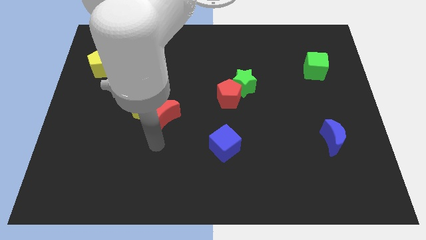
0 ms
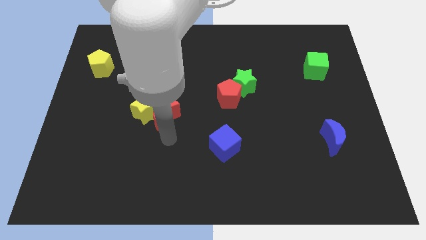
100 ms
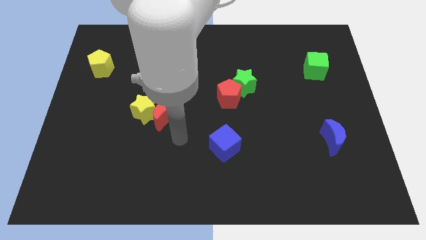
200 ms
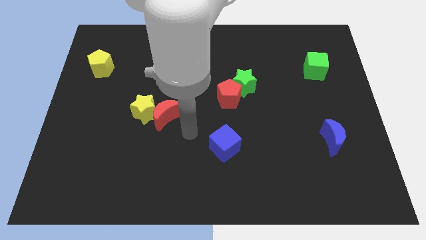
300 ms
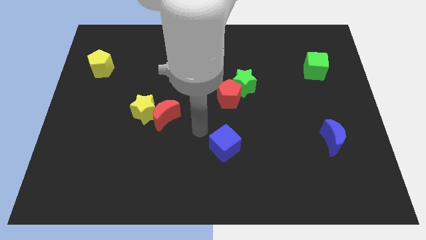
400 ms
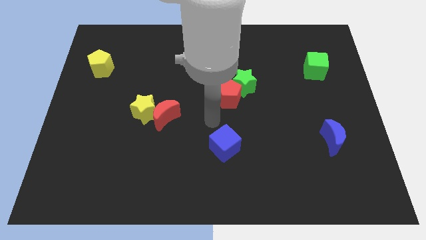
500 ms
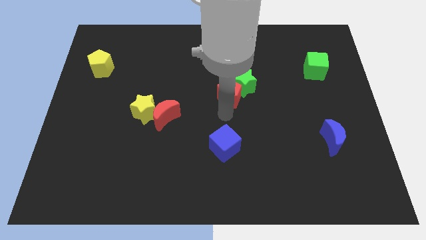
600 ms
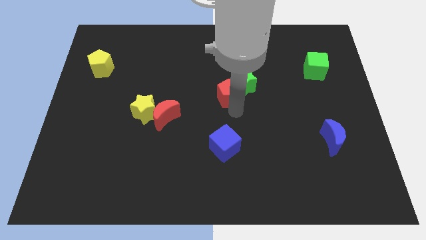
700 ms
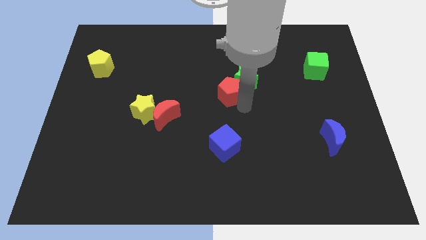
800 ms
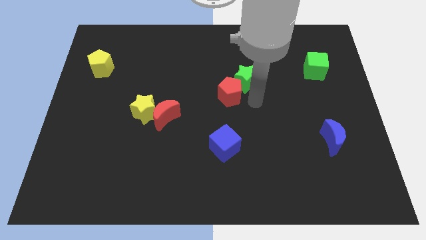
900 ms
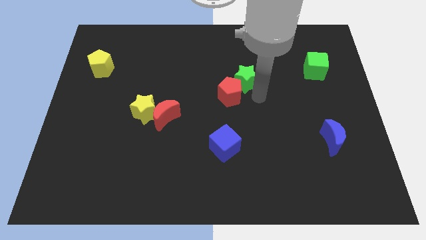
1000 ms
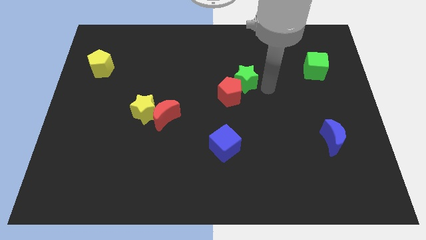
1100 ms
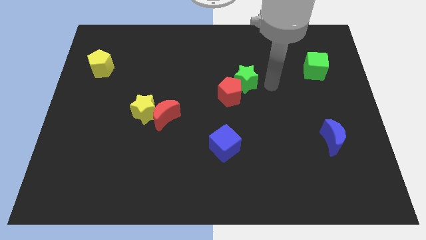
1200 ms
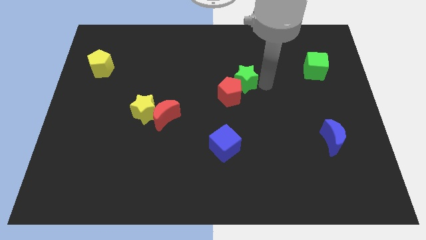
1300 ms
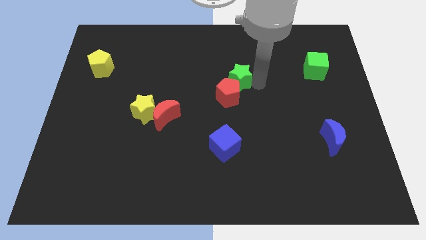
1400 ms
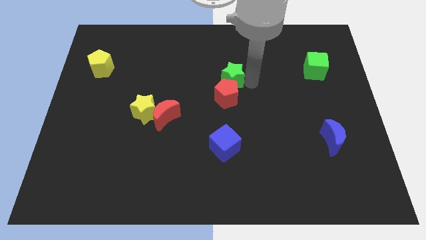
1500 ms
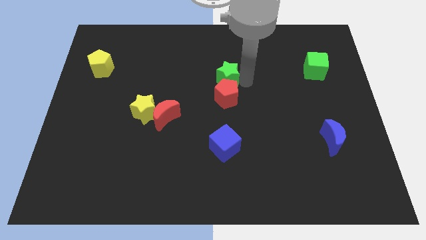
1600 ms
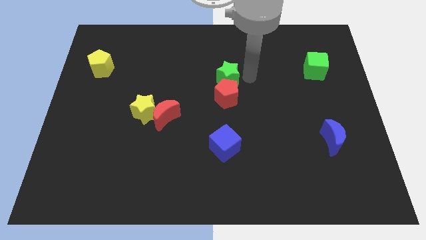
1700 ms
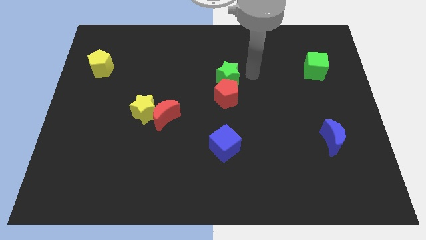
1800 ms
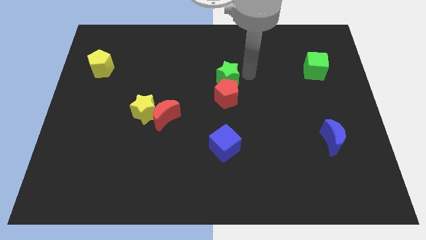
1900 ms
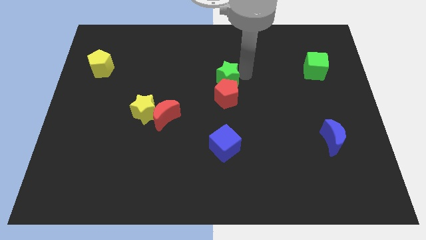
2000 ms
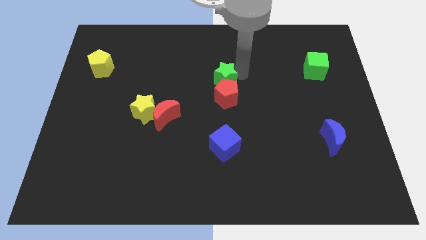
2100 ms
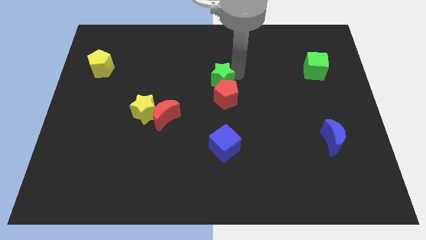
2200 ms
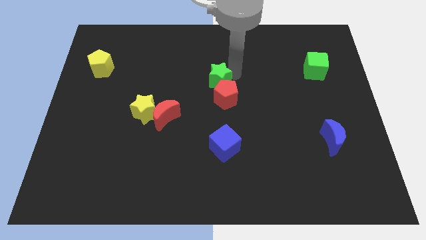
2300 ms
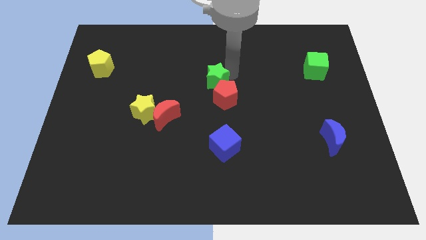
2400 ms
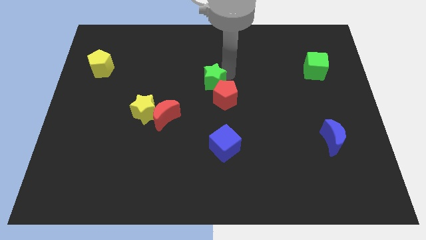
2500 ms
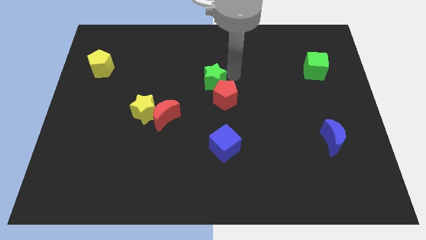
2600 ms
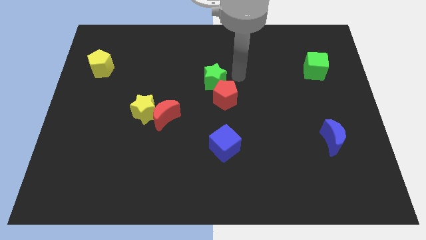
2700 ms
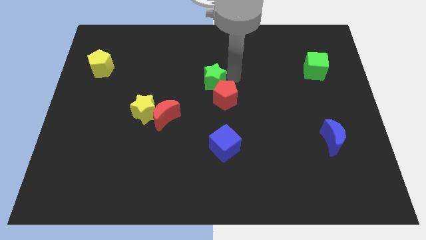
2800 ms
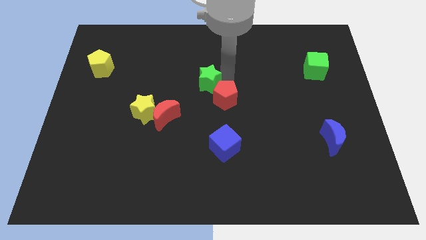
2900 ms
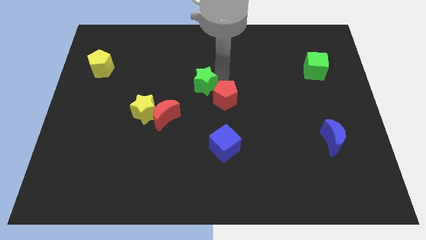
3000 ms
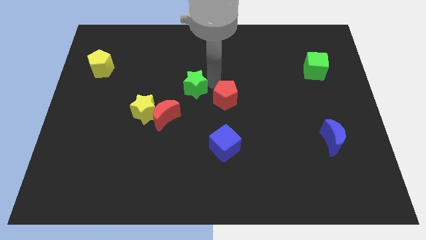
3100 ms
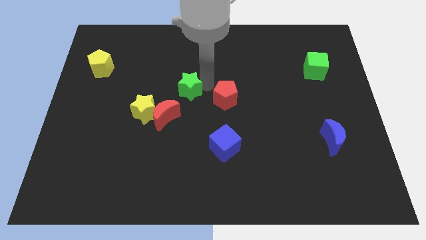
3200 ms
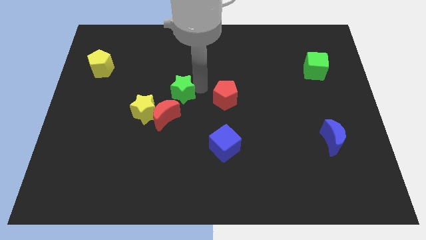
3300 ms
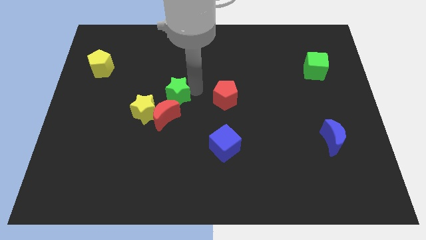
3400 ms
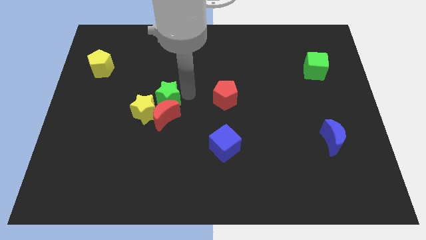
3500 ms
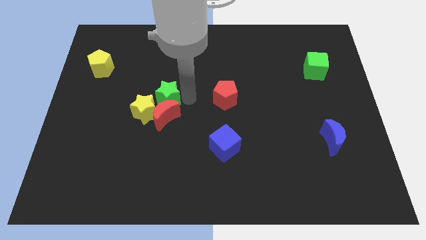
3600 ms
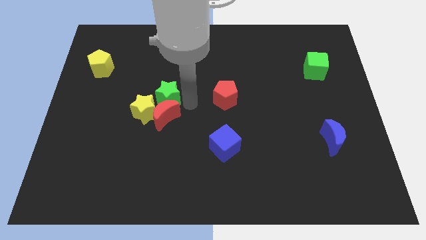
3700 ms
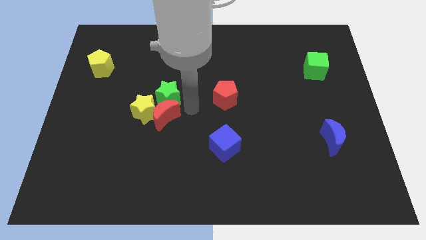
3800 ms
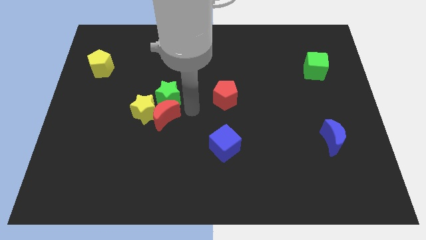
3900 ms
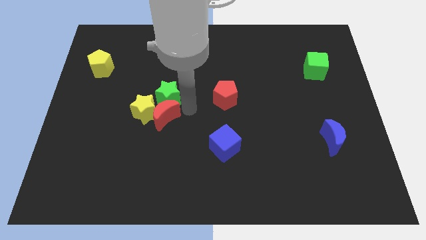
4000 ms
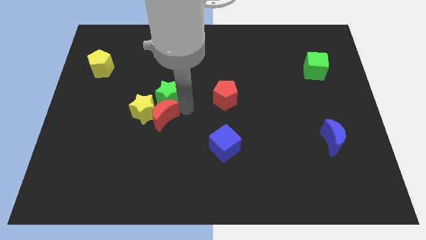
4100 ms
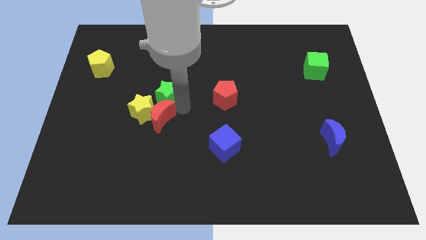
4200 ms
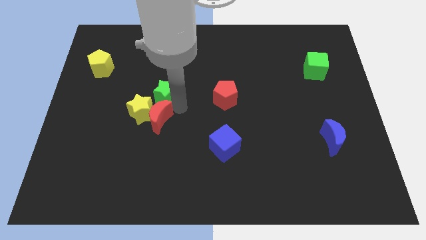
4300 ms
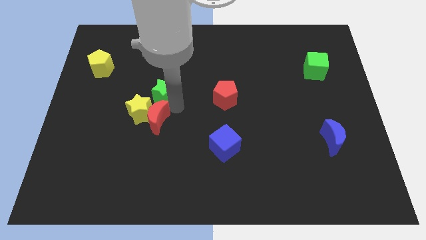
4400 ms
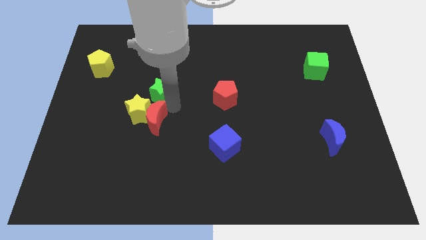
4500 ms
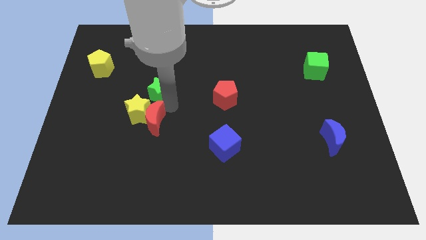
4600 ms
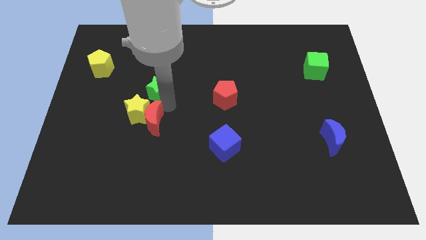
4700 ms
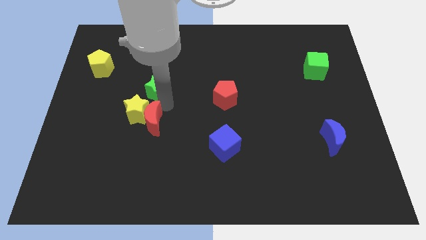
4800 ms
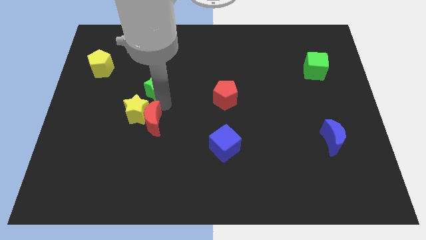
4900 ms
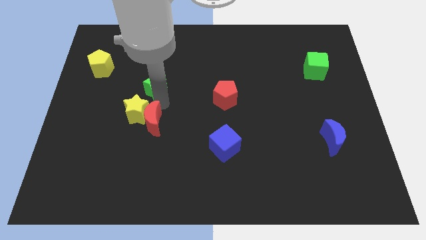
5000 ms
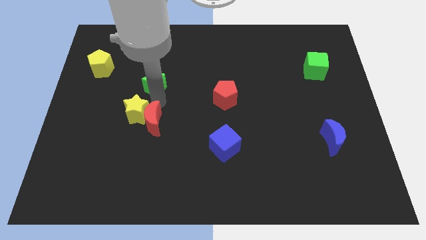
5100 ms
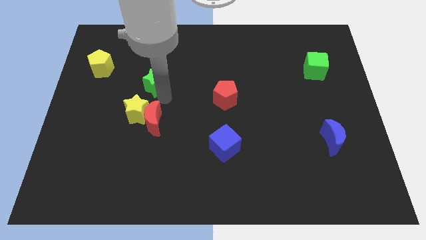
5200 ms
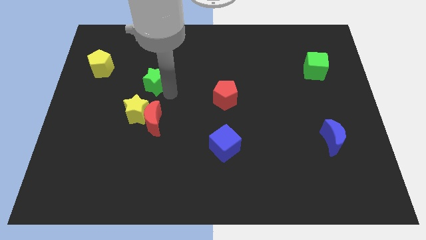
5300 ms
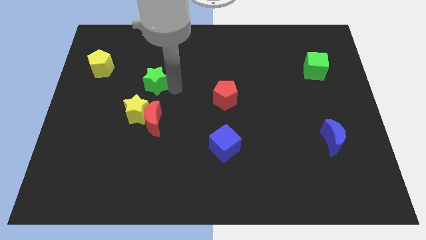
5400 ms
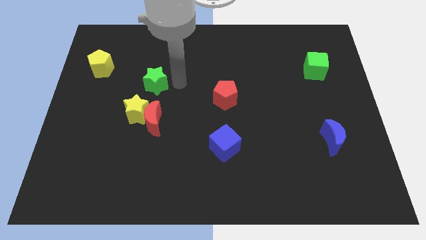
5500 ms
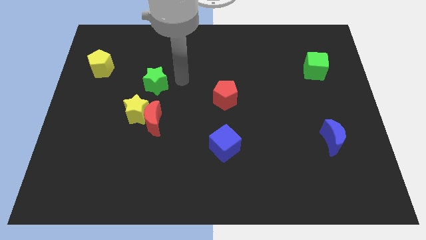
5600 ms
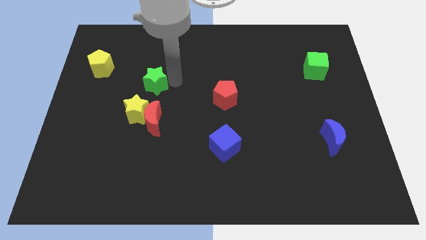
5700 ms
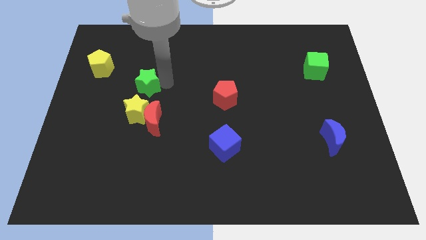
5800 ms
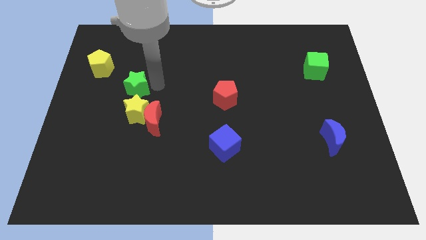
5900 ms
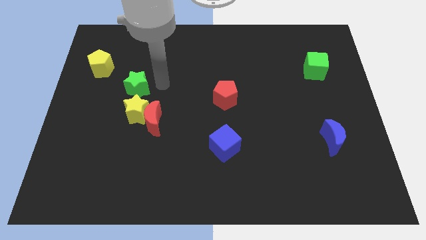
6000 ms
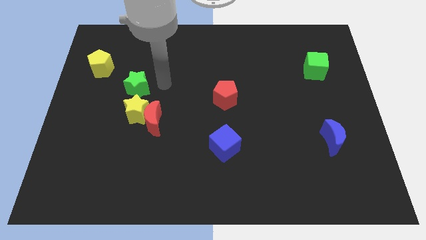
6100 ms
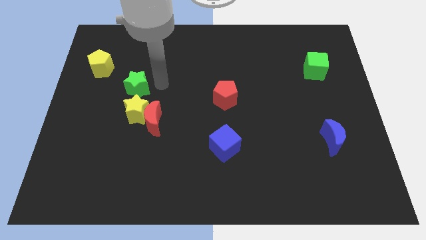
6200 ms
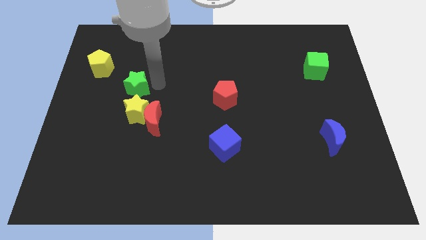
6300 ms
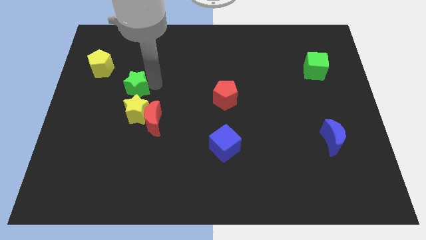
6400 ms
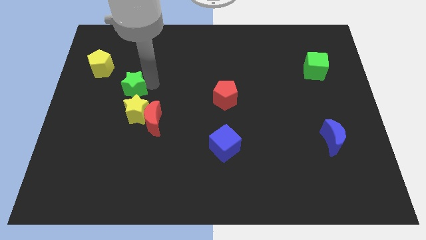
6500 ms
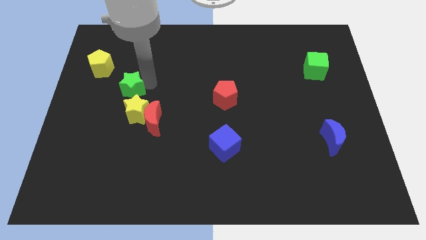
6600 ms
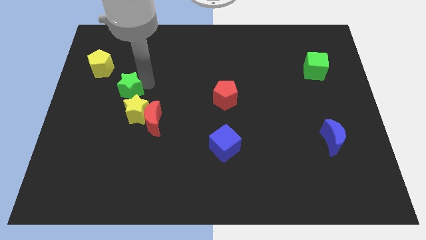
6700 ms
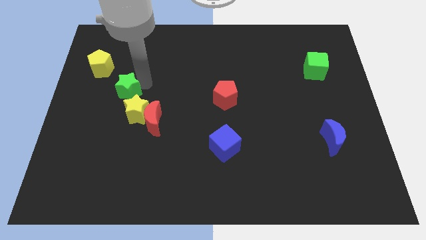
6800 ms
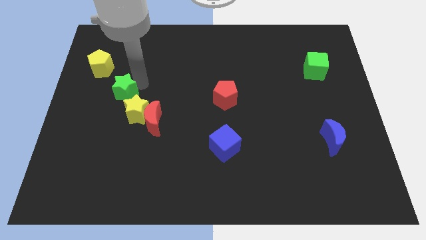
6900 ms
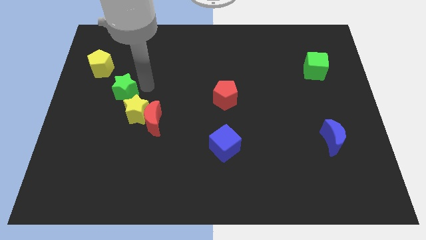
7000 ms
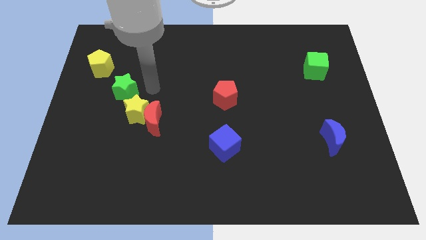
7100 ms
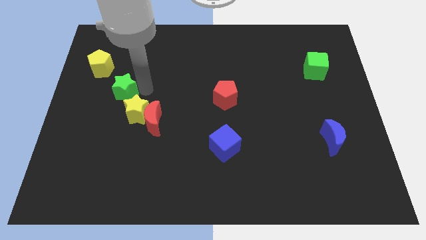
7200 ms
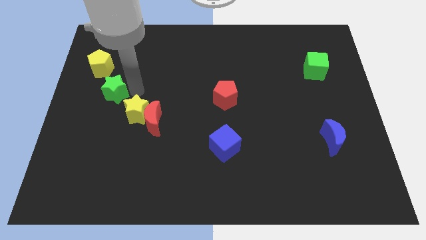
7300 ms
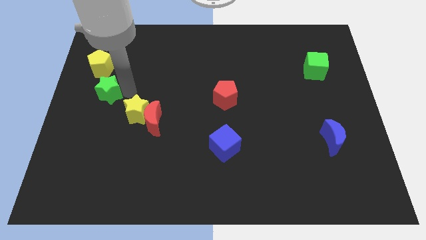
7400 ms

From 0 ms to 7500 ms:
put the green star to the center left
